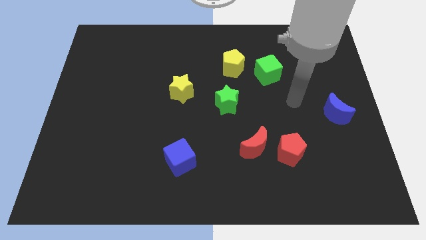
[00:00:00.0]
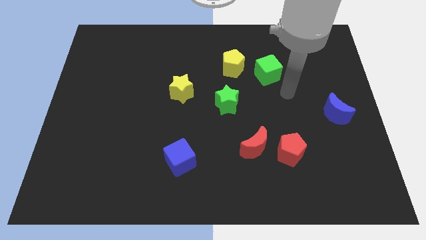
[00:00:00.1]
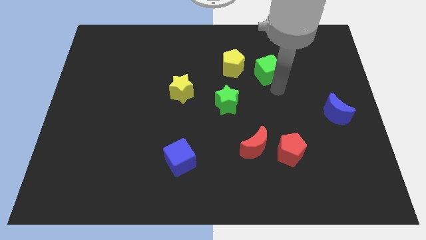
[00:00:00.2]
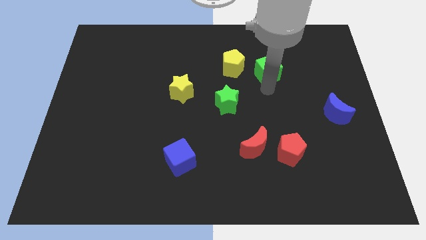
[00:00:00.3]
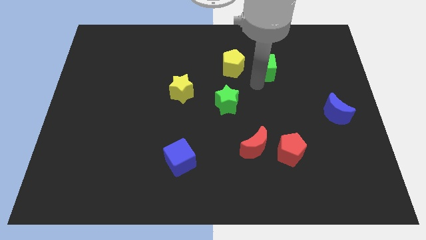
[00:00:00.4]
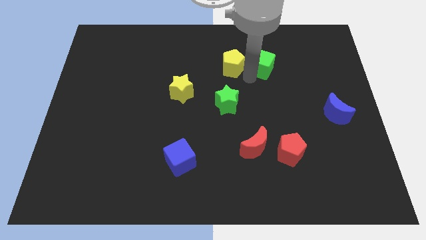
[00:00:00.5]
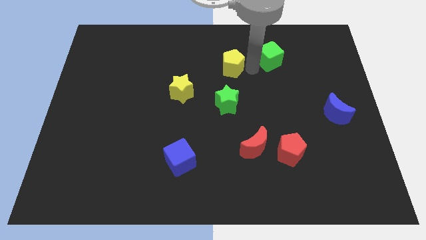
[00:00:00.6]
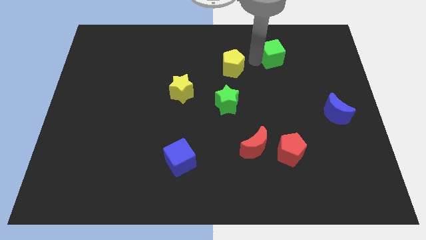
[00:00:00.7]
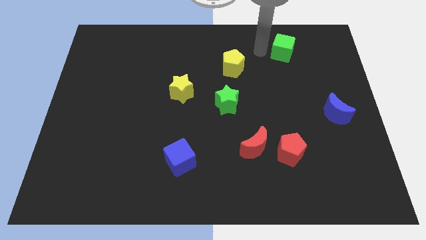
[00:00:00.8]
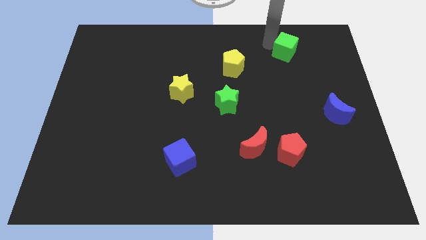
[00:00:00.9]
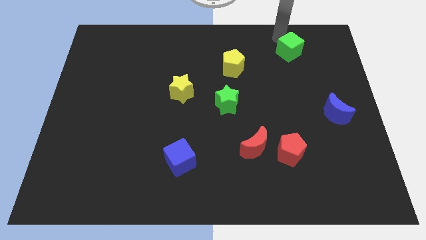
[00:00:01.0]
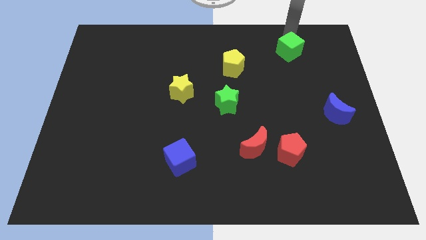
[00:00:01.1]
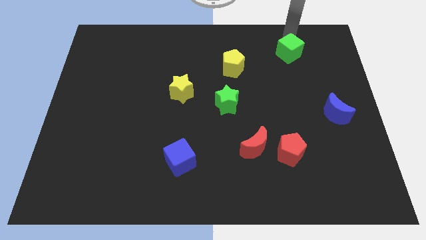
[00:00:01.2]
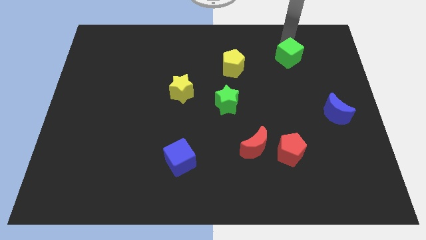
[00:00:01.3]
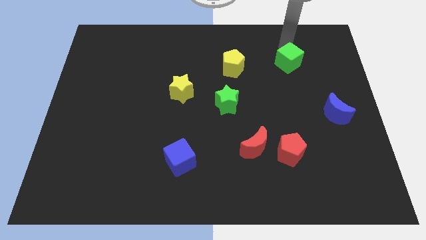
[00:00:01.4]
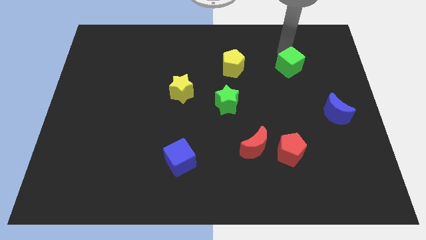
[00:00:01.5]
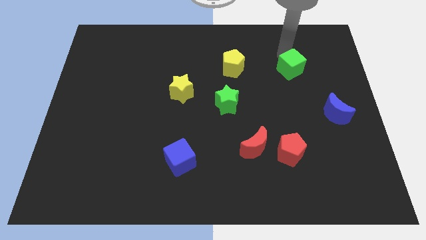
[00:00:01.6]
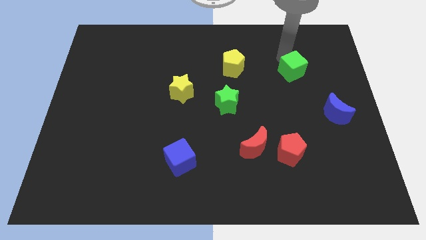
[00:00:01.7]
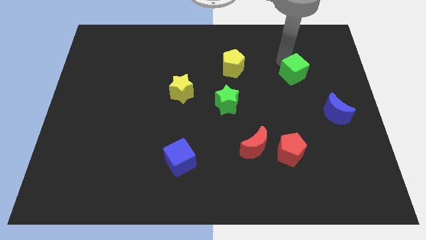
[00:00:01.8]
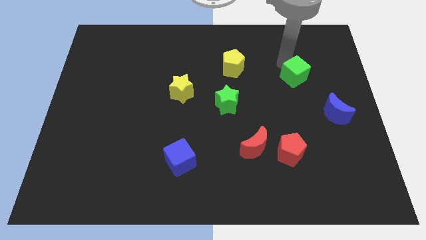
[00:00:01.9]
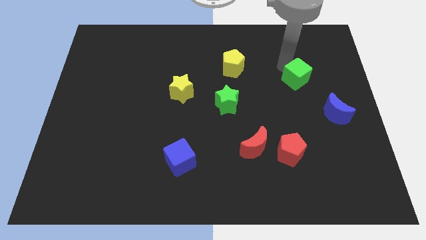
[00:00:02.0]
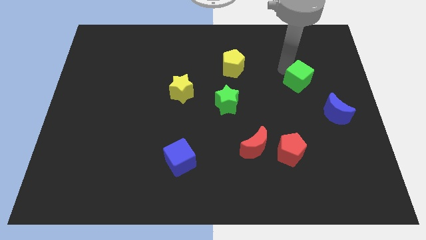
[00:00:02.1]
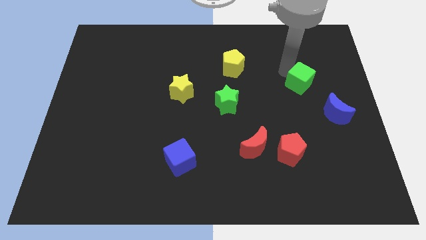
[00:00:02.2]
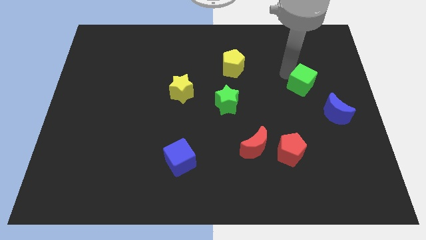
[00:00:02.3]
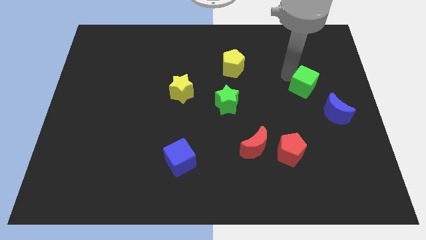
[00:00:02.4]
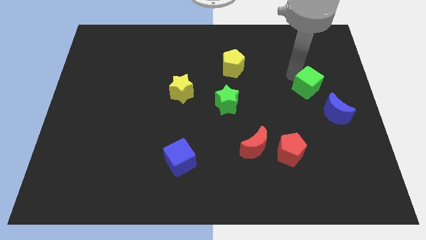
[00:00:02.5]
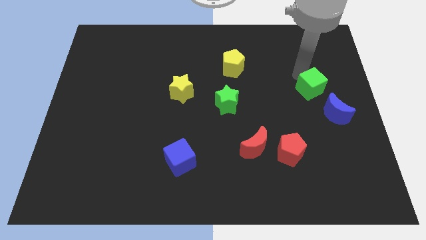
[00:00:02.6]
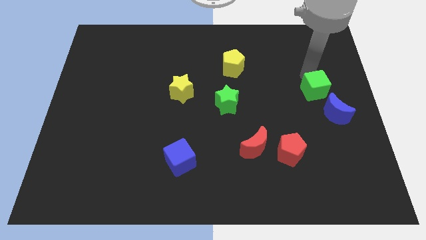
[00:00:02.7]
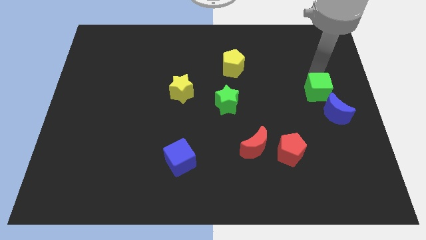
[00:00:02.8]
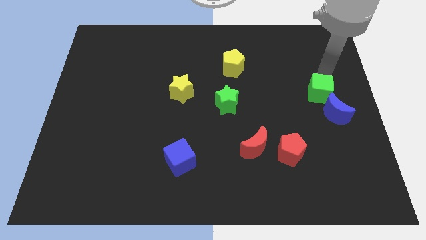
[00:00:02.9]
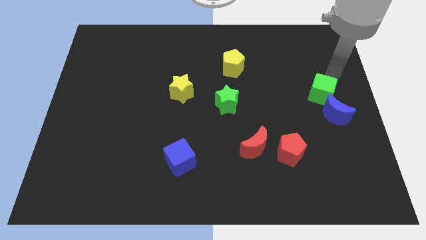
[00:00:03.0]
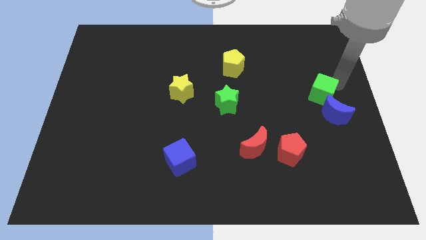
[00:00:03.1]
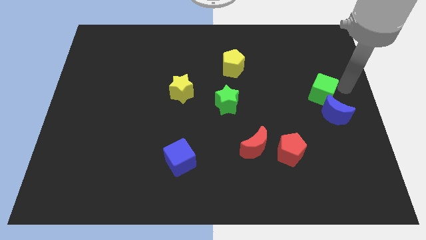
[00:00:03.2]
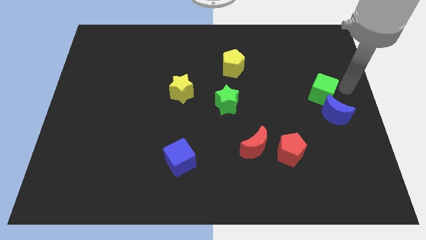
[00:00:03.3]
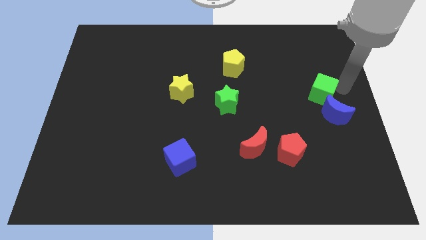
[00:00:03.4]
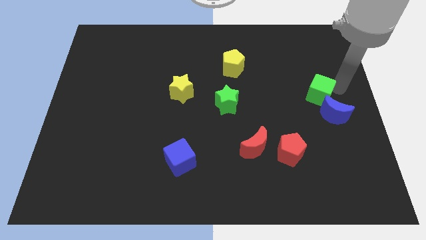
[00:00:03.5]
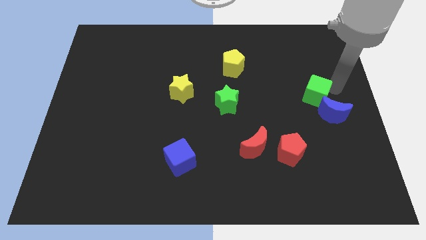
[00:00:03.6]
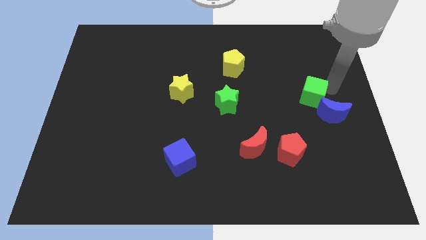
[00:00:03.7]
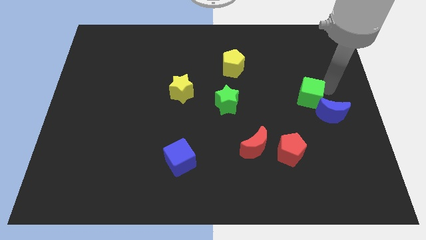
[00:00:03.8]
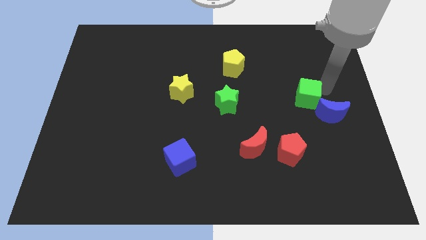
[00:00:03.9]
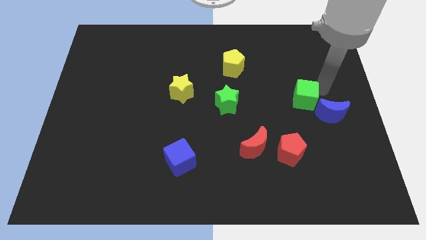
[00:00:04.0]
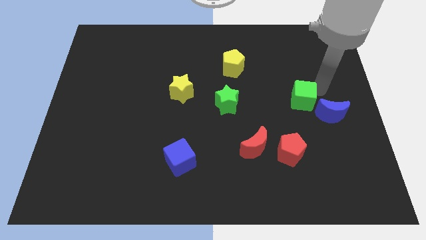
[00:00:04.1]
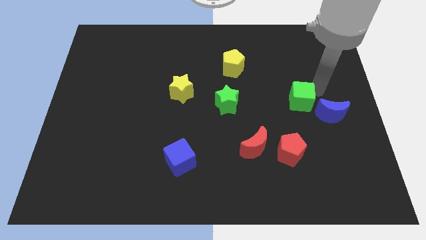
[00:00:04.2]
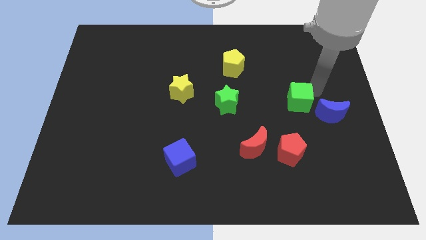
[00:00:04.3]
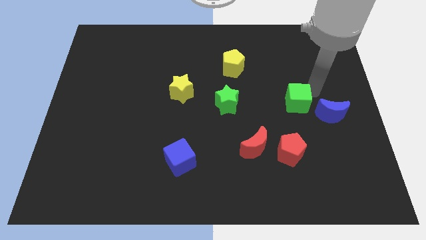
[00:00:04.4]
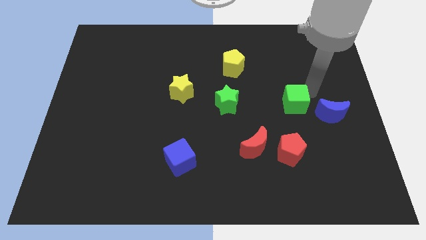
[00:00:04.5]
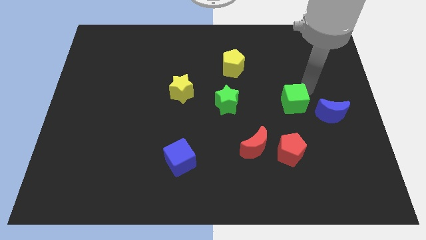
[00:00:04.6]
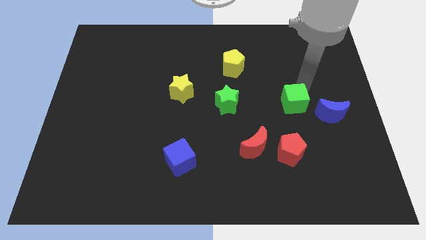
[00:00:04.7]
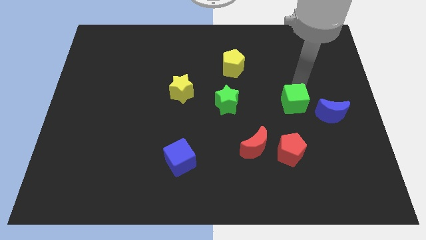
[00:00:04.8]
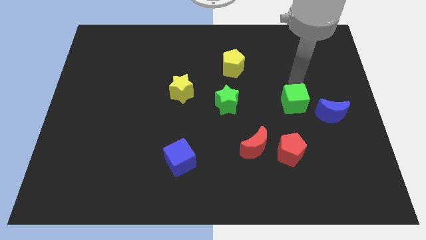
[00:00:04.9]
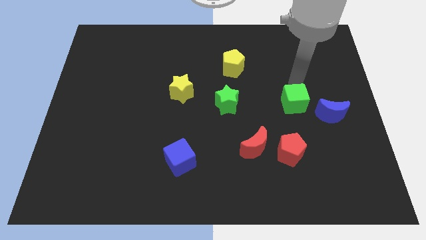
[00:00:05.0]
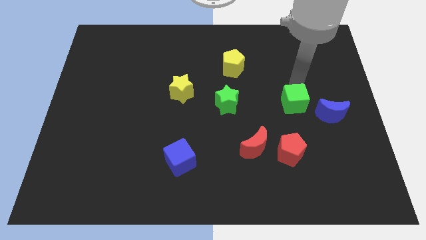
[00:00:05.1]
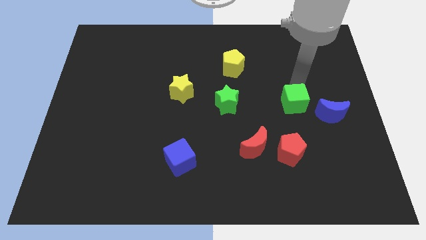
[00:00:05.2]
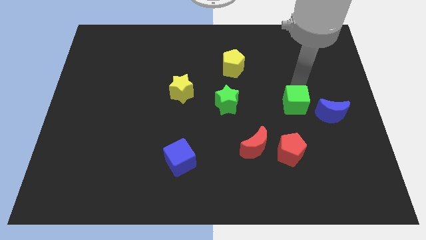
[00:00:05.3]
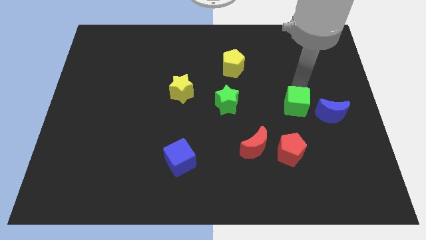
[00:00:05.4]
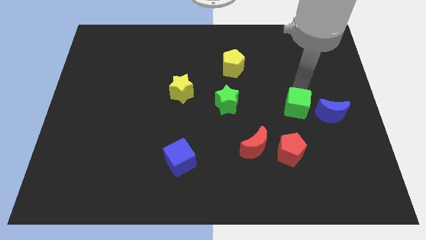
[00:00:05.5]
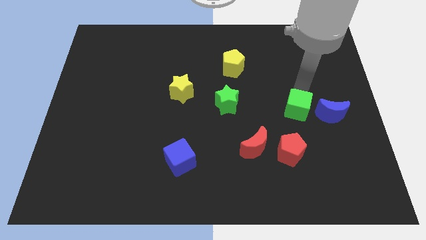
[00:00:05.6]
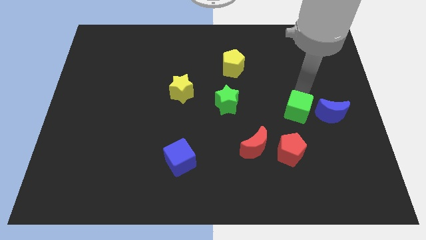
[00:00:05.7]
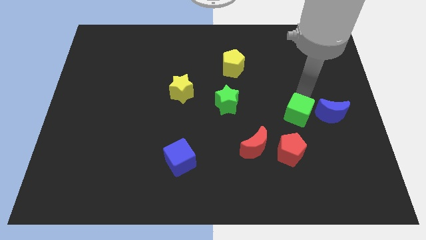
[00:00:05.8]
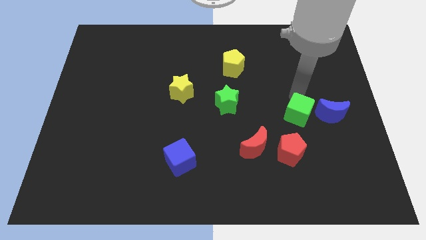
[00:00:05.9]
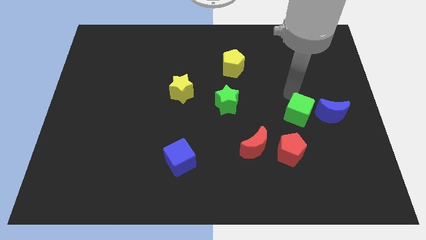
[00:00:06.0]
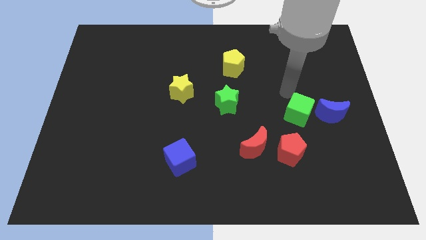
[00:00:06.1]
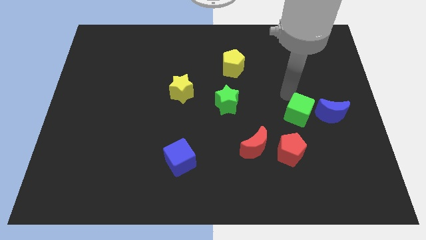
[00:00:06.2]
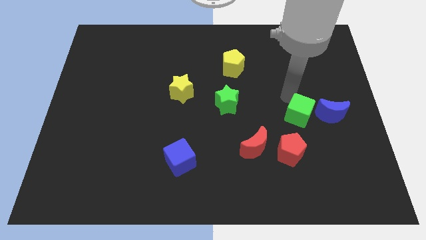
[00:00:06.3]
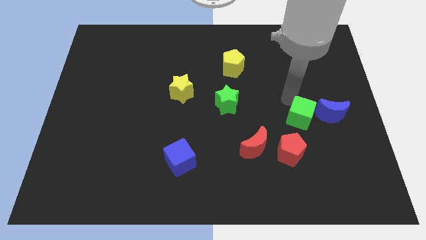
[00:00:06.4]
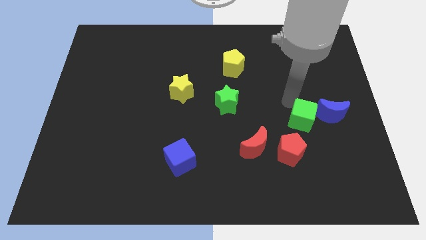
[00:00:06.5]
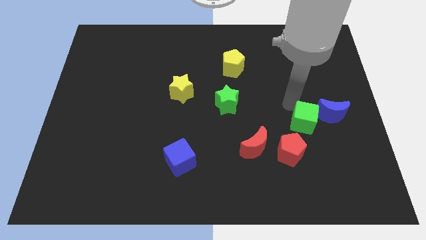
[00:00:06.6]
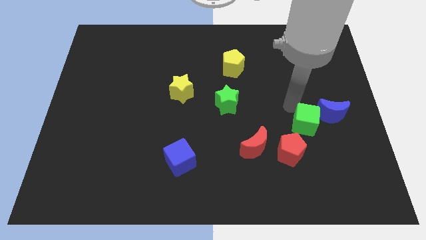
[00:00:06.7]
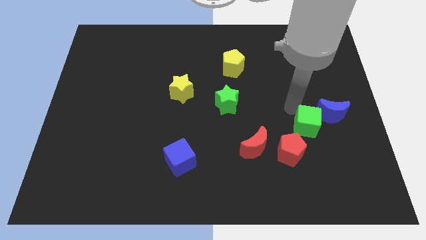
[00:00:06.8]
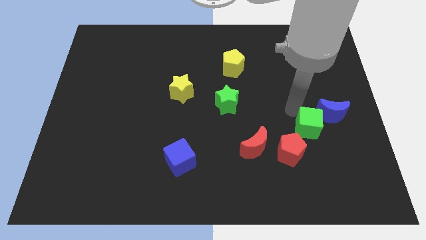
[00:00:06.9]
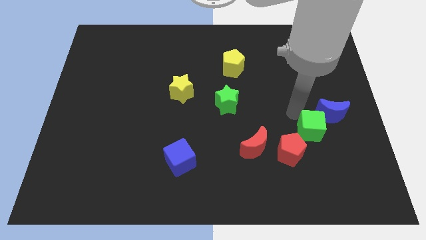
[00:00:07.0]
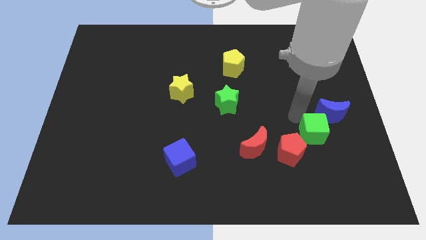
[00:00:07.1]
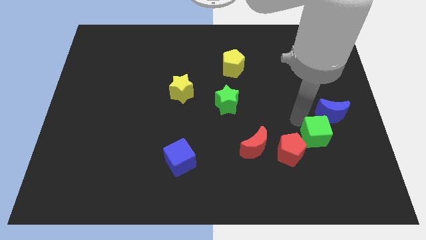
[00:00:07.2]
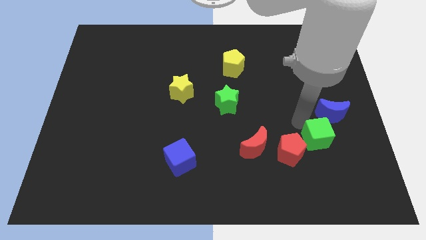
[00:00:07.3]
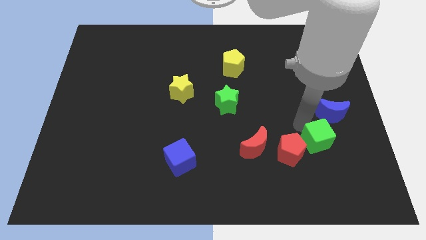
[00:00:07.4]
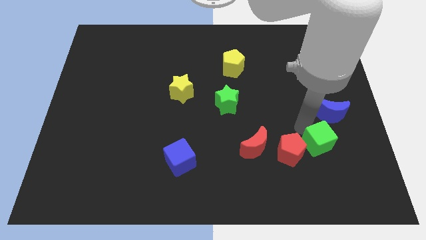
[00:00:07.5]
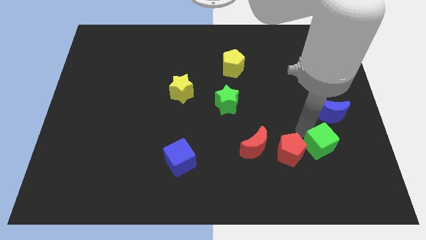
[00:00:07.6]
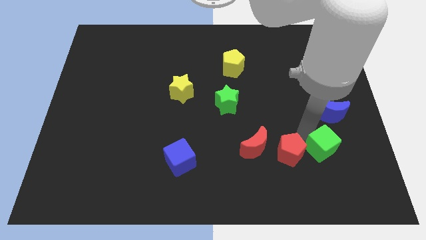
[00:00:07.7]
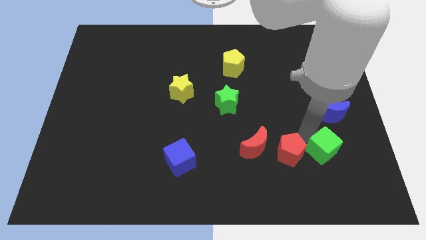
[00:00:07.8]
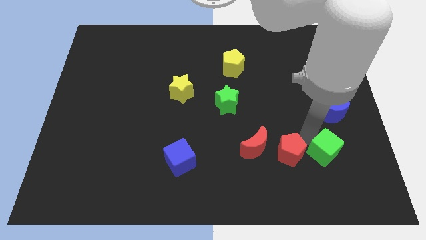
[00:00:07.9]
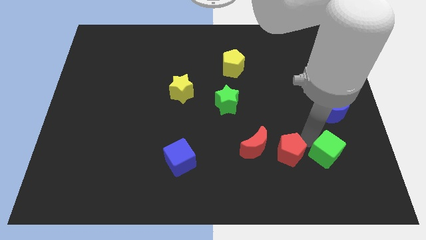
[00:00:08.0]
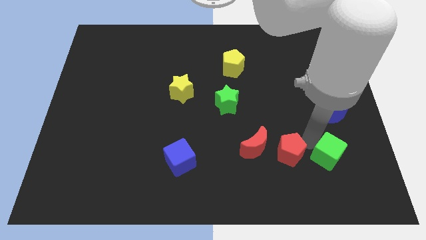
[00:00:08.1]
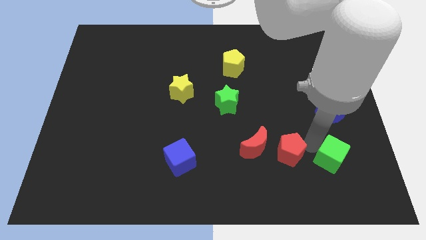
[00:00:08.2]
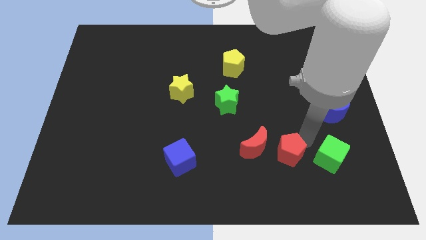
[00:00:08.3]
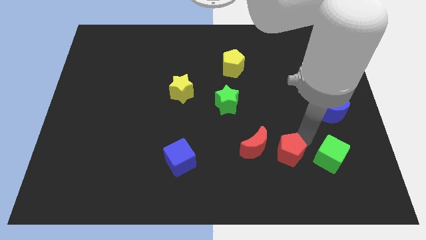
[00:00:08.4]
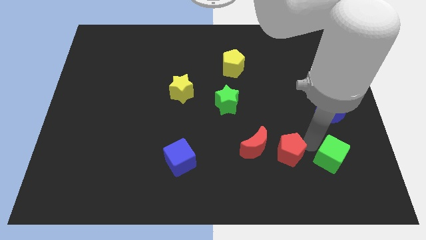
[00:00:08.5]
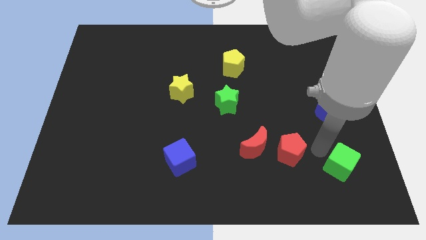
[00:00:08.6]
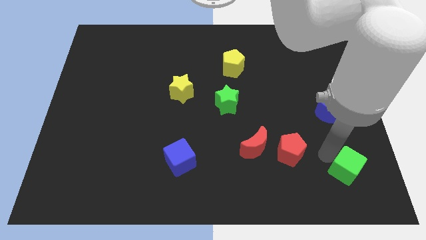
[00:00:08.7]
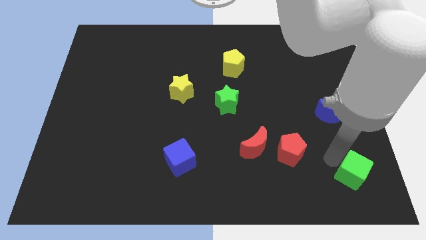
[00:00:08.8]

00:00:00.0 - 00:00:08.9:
slide the green cube to the bottom right of the board
